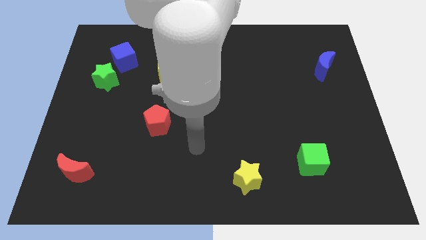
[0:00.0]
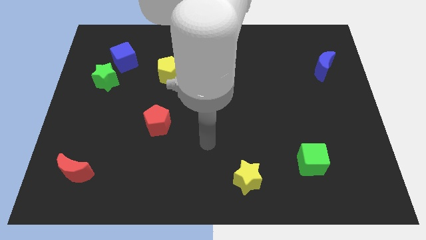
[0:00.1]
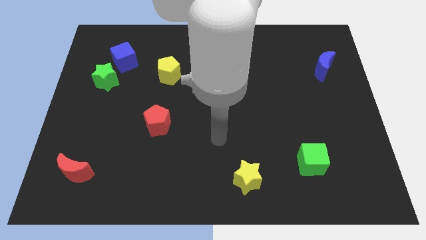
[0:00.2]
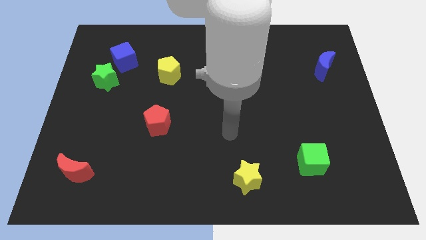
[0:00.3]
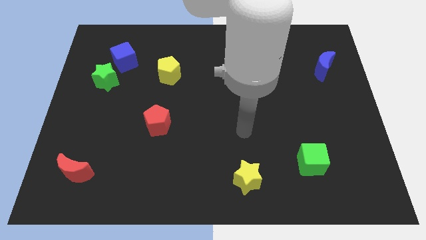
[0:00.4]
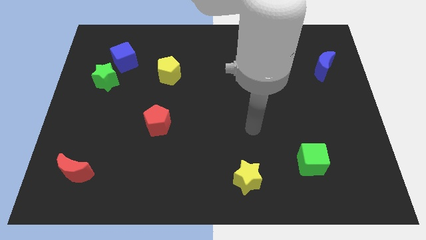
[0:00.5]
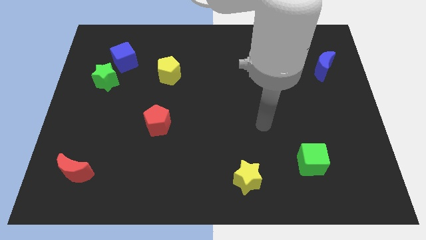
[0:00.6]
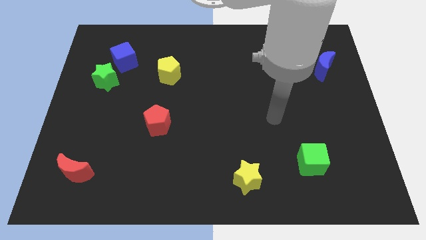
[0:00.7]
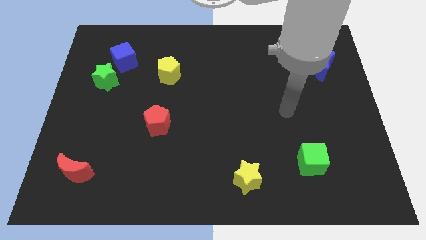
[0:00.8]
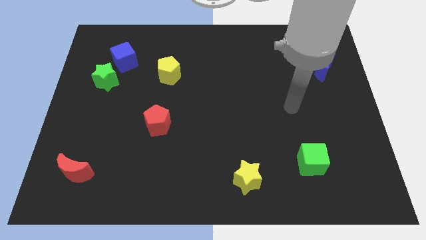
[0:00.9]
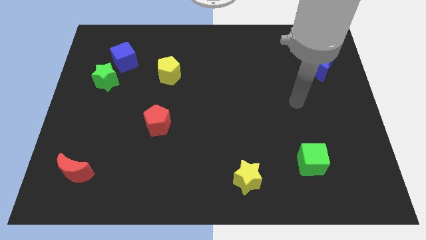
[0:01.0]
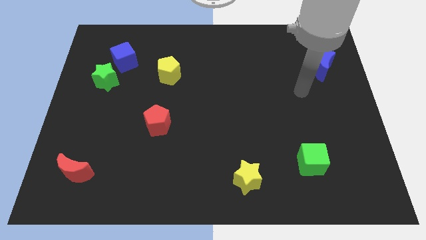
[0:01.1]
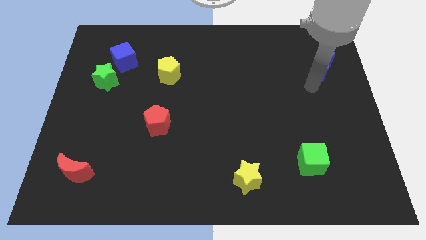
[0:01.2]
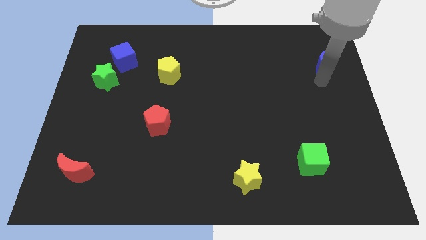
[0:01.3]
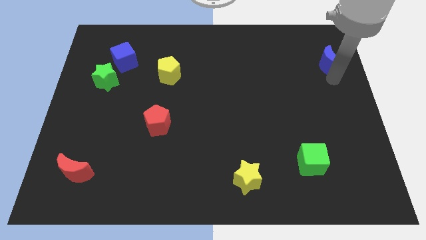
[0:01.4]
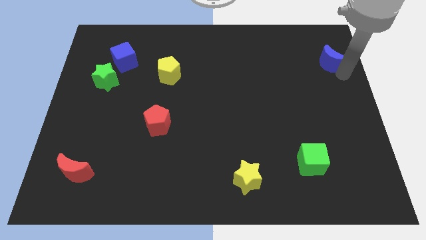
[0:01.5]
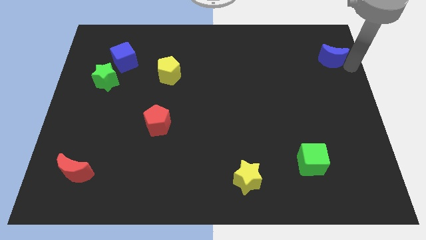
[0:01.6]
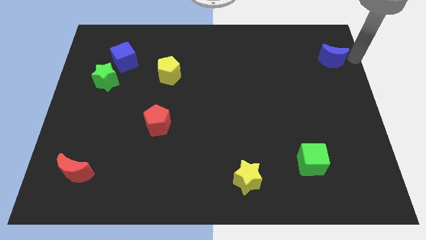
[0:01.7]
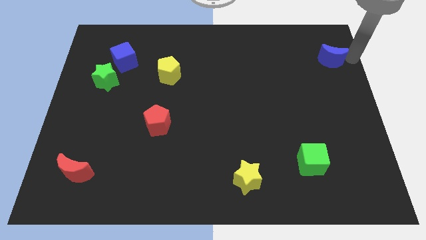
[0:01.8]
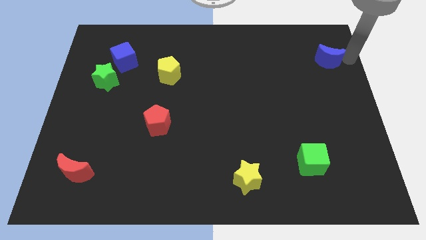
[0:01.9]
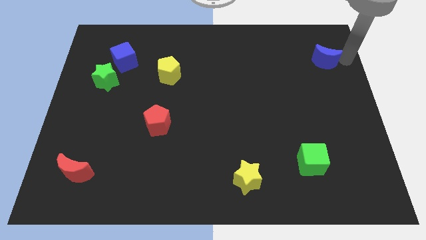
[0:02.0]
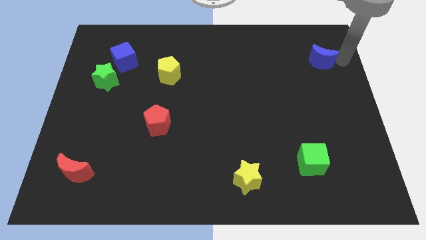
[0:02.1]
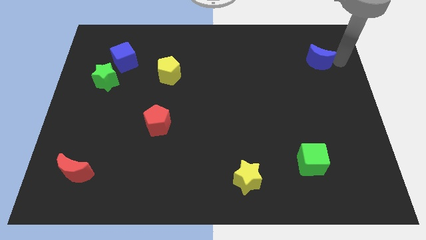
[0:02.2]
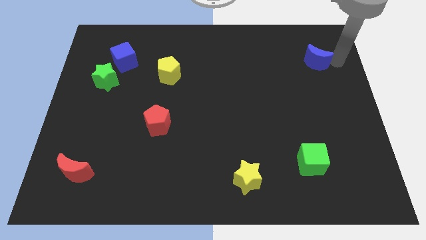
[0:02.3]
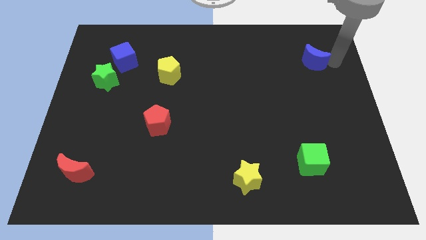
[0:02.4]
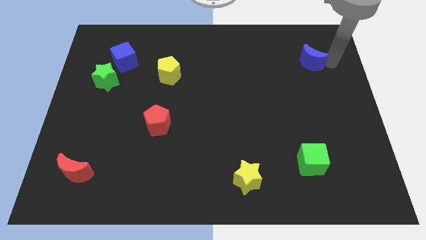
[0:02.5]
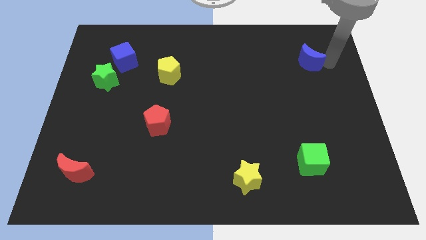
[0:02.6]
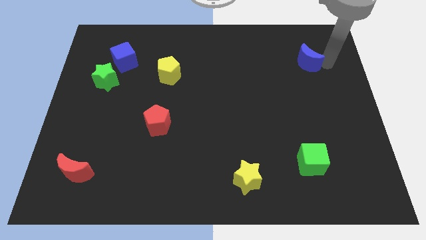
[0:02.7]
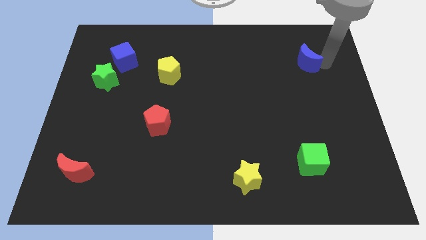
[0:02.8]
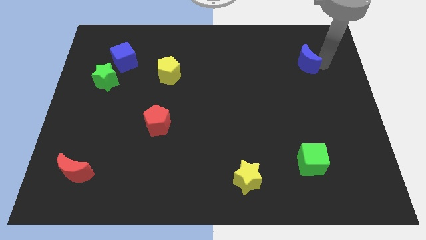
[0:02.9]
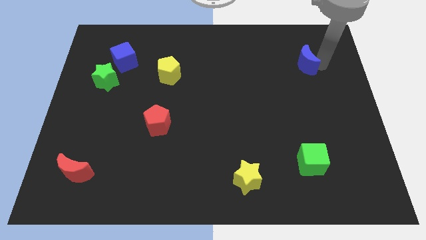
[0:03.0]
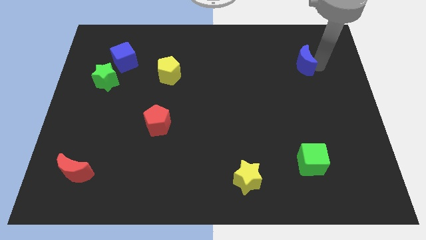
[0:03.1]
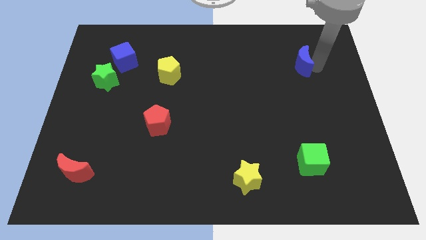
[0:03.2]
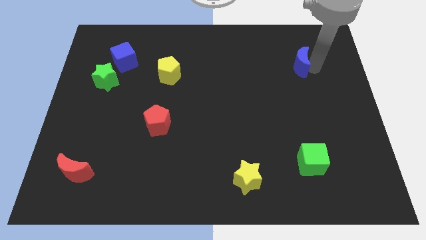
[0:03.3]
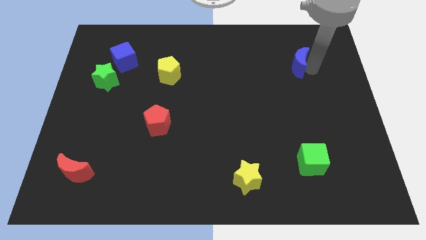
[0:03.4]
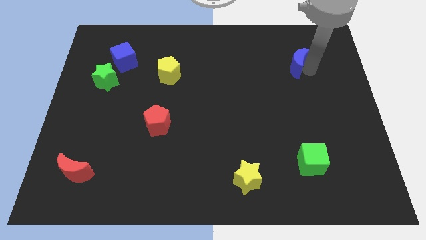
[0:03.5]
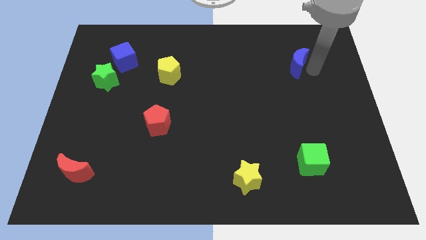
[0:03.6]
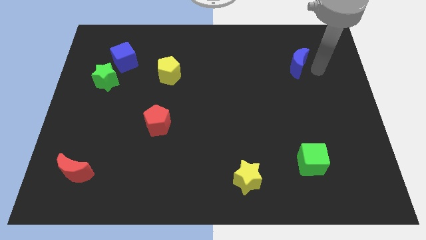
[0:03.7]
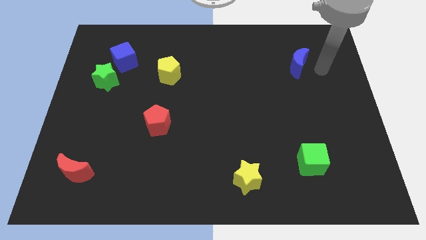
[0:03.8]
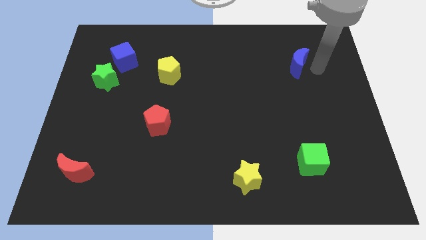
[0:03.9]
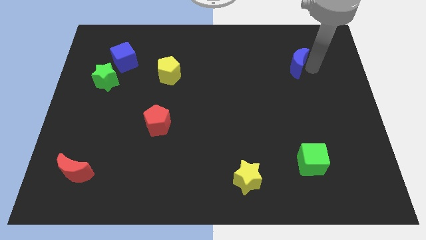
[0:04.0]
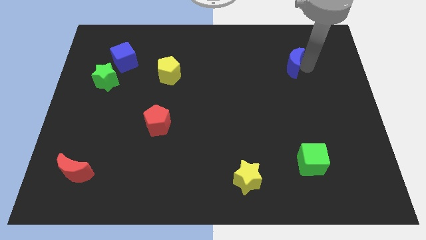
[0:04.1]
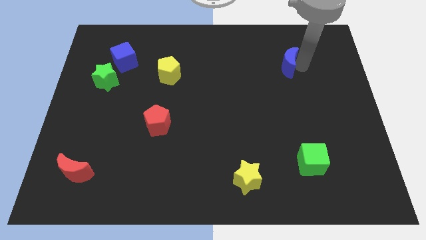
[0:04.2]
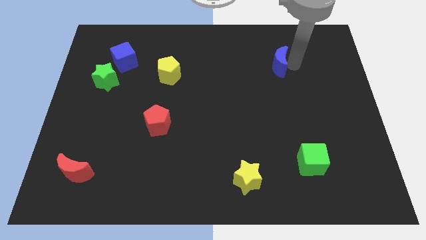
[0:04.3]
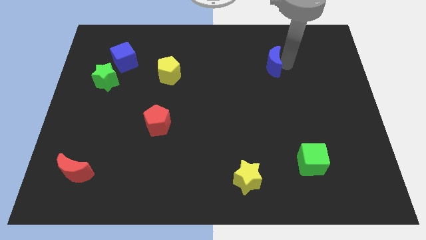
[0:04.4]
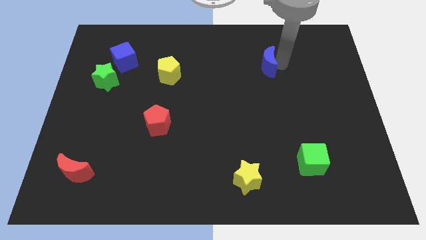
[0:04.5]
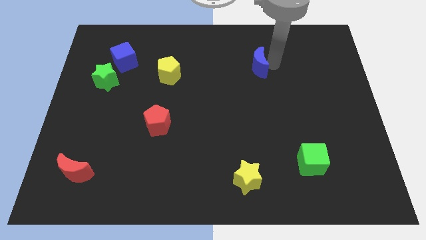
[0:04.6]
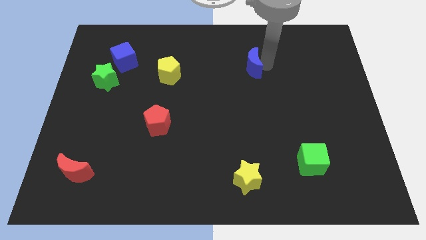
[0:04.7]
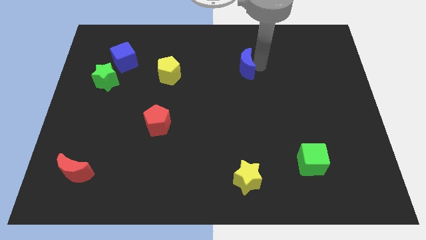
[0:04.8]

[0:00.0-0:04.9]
push the blue moon to the left

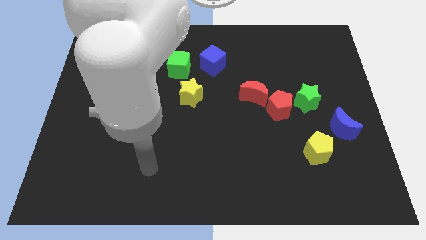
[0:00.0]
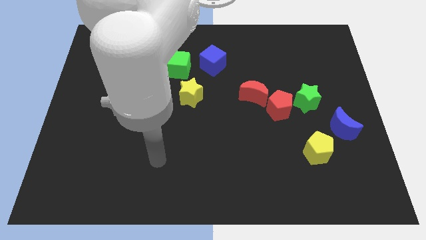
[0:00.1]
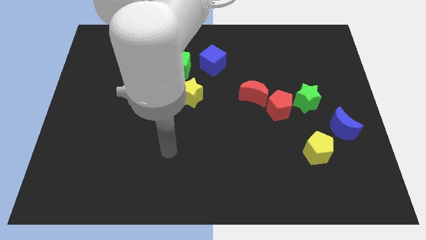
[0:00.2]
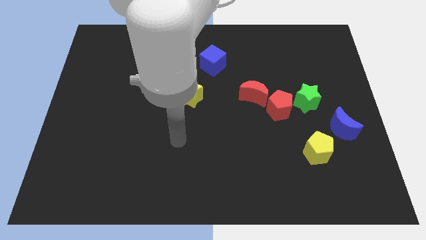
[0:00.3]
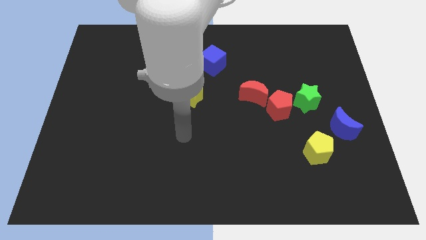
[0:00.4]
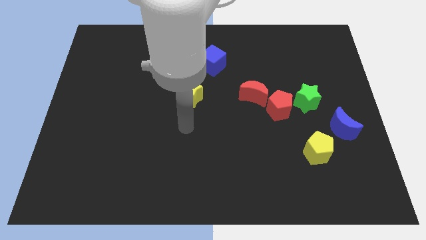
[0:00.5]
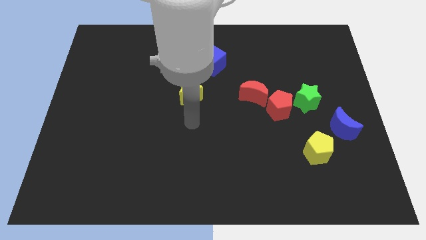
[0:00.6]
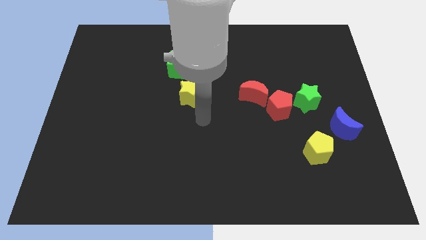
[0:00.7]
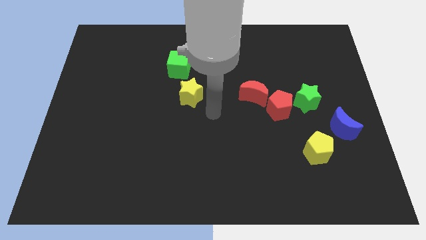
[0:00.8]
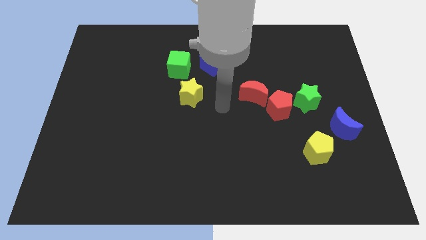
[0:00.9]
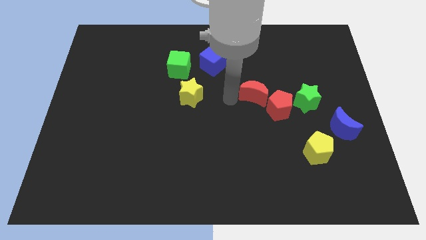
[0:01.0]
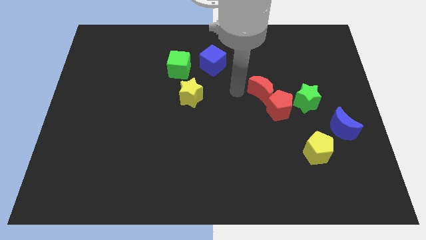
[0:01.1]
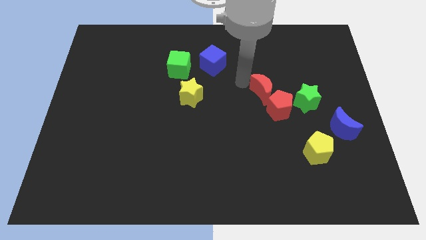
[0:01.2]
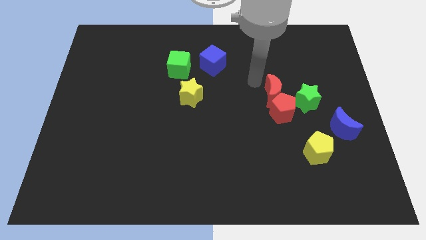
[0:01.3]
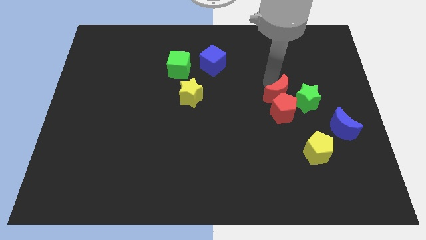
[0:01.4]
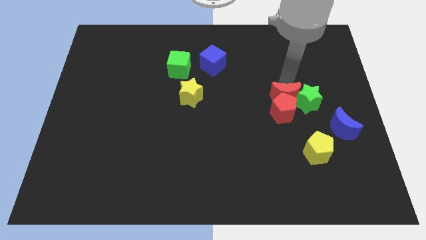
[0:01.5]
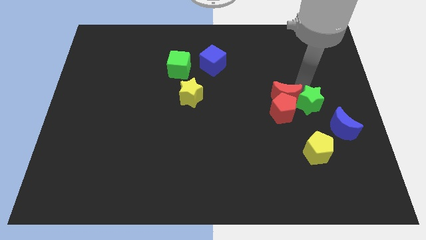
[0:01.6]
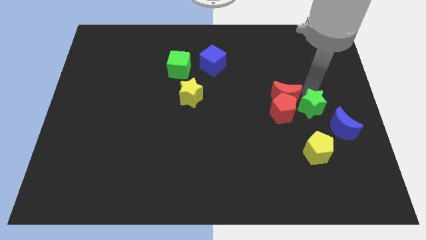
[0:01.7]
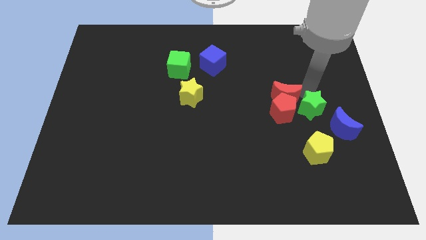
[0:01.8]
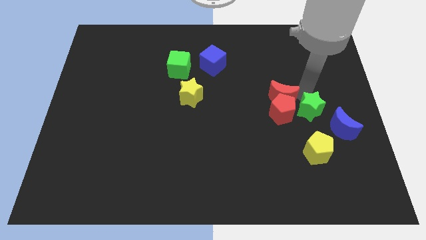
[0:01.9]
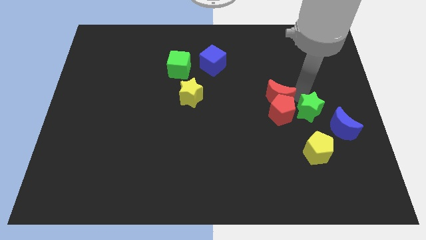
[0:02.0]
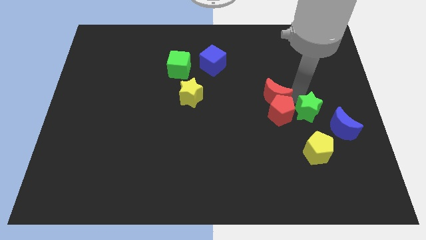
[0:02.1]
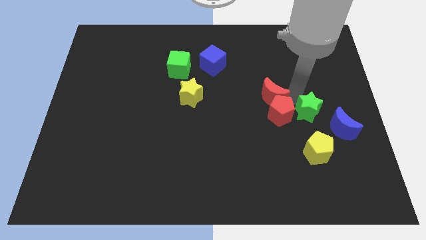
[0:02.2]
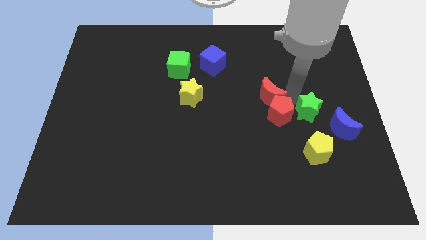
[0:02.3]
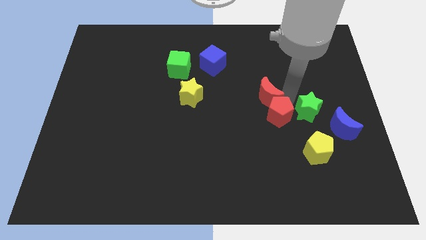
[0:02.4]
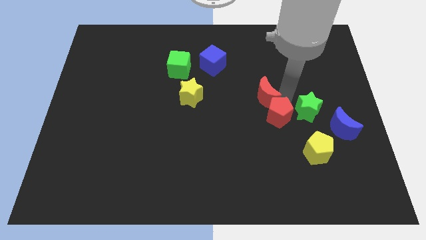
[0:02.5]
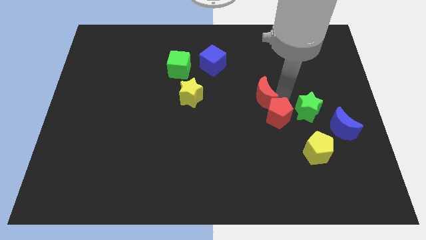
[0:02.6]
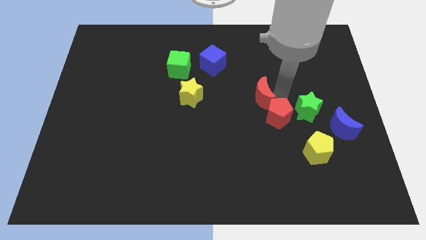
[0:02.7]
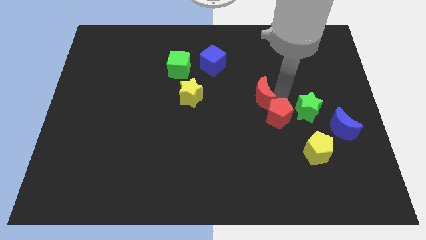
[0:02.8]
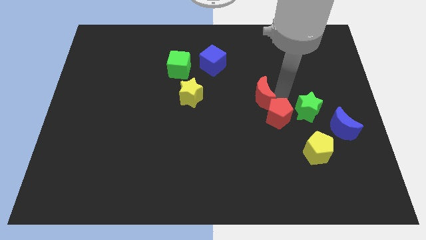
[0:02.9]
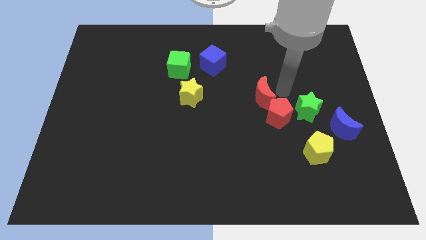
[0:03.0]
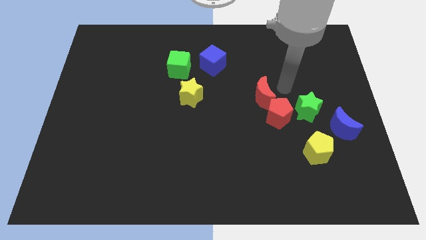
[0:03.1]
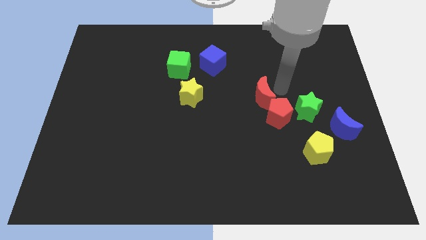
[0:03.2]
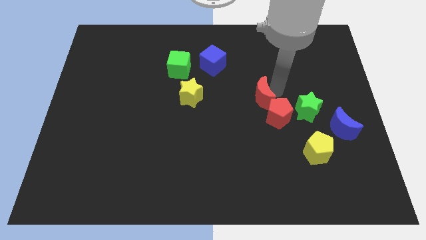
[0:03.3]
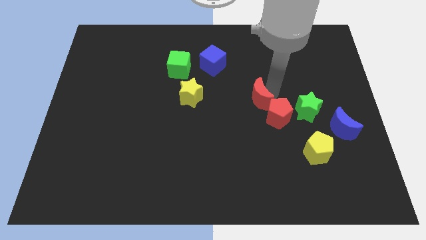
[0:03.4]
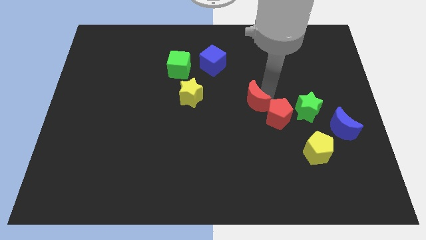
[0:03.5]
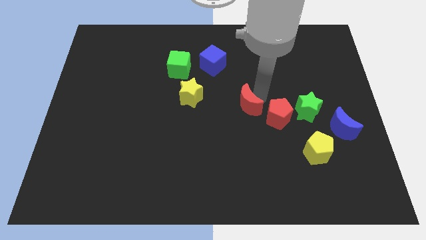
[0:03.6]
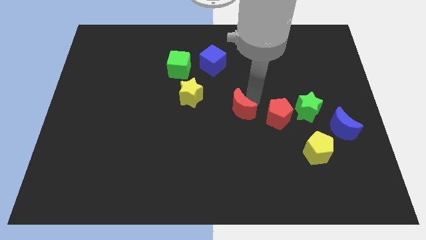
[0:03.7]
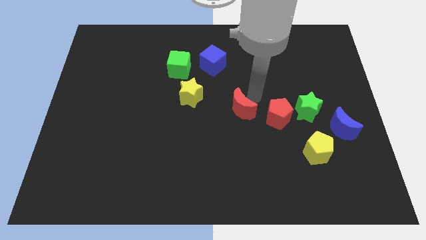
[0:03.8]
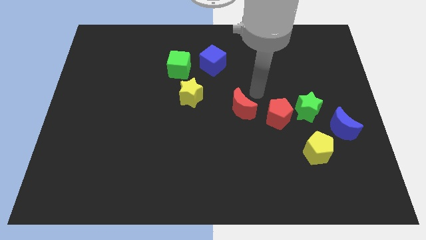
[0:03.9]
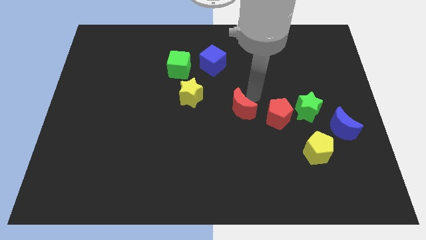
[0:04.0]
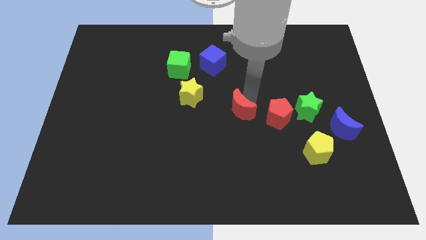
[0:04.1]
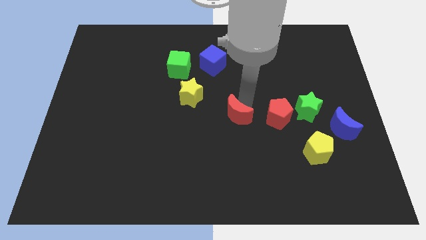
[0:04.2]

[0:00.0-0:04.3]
slightly move the red moon downwards and then to the left
